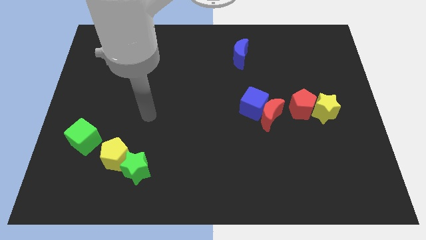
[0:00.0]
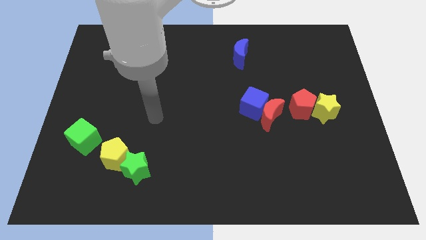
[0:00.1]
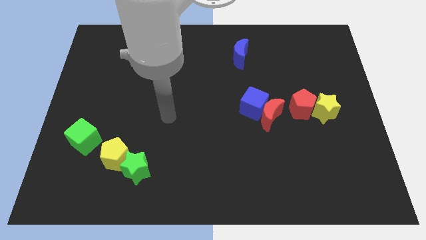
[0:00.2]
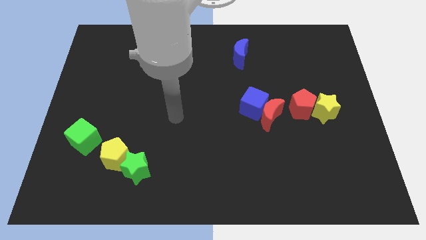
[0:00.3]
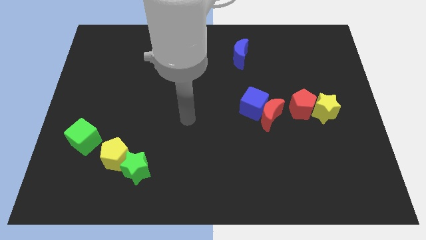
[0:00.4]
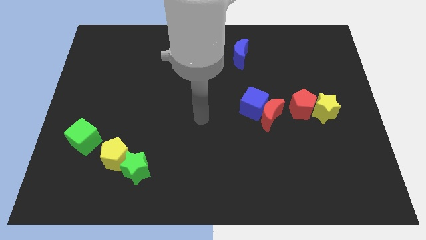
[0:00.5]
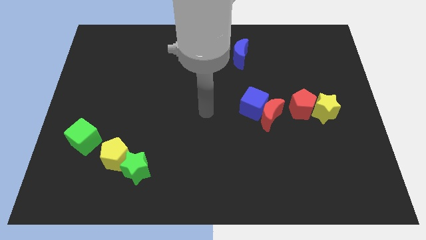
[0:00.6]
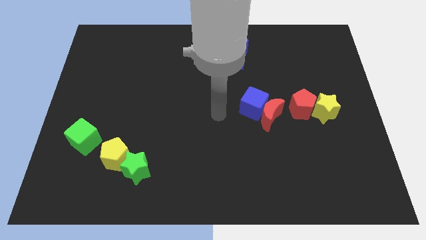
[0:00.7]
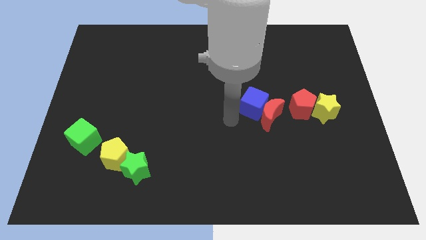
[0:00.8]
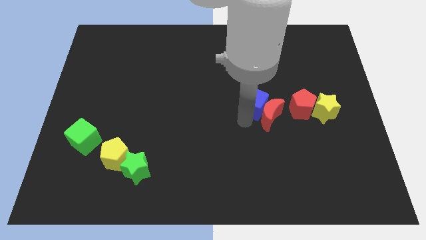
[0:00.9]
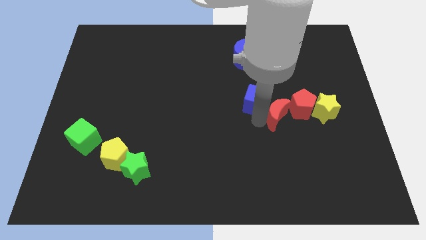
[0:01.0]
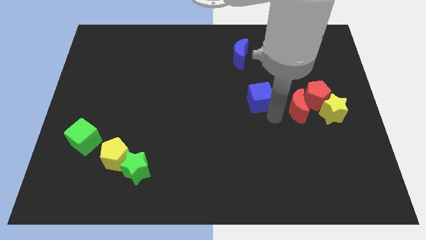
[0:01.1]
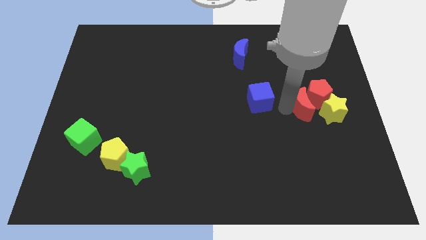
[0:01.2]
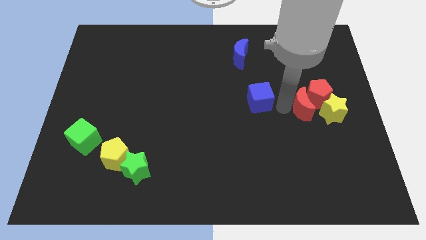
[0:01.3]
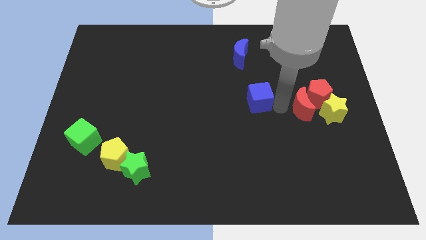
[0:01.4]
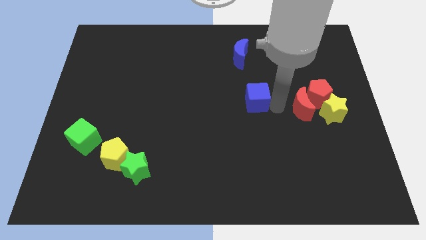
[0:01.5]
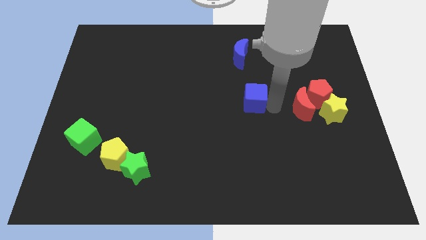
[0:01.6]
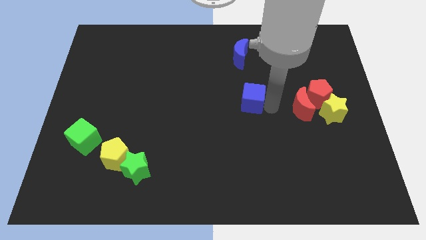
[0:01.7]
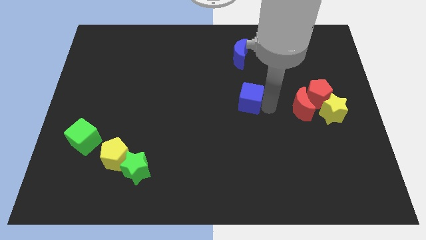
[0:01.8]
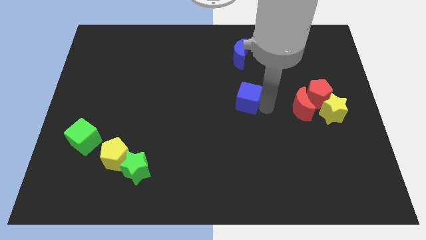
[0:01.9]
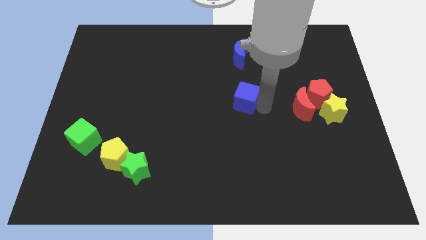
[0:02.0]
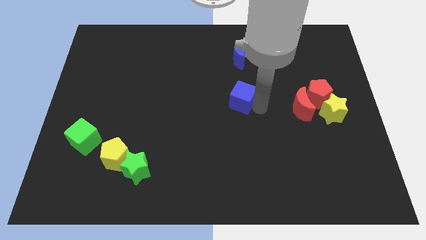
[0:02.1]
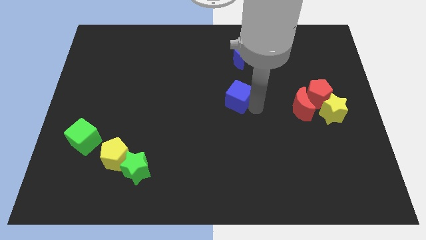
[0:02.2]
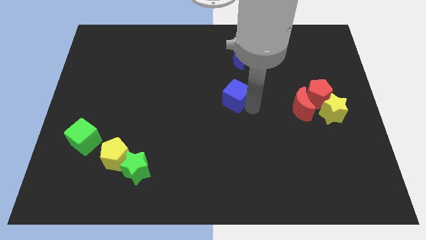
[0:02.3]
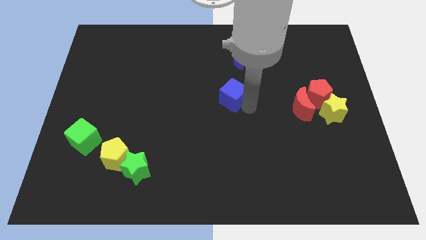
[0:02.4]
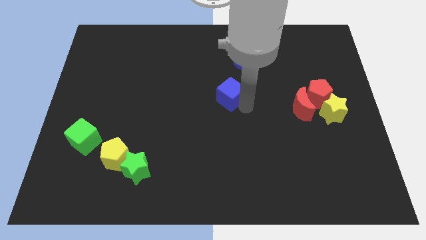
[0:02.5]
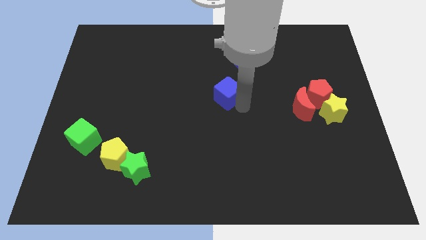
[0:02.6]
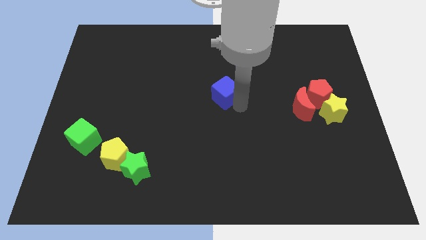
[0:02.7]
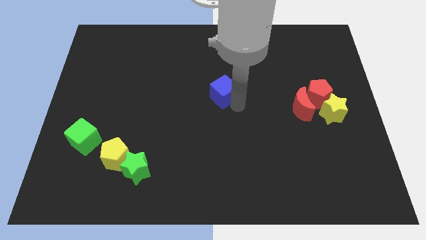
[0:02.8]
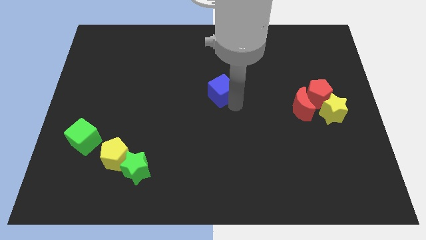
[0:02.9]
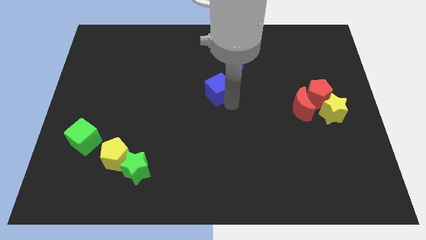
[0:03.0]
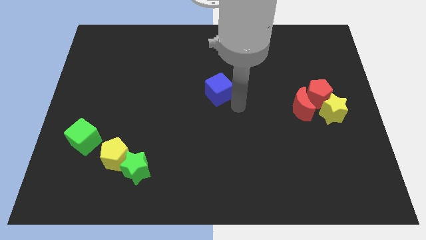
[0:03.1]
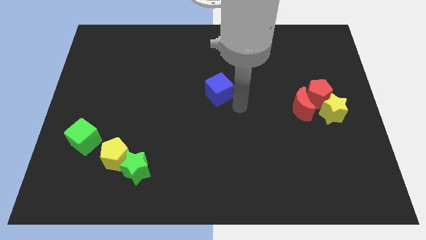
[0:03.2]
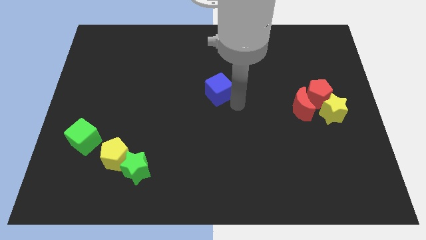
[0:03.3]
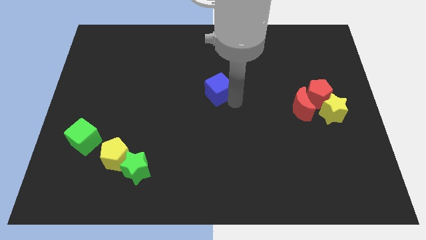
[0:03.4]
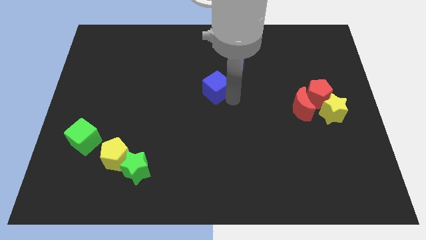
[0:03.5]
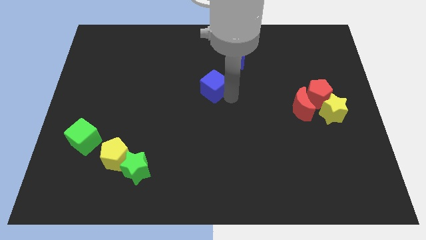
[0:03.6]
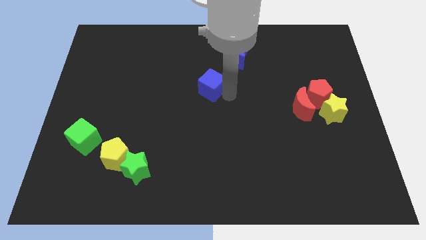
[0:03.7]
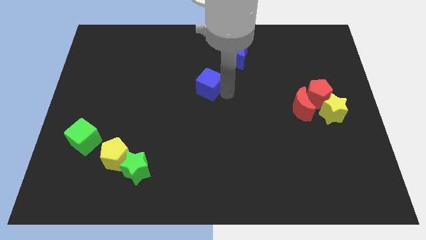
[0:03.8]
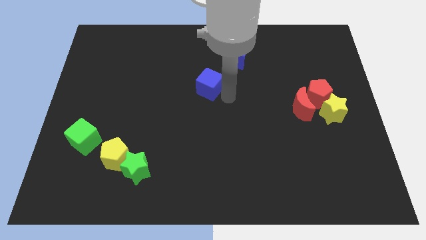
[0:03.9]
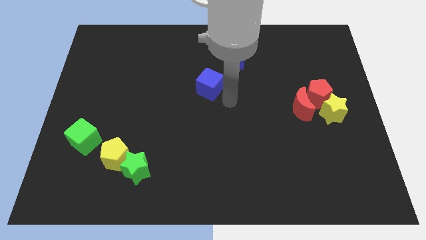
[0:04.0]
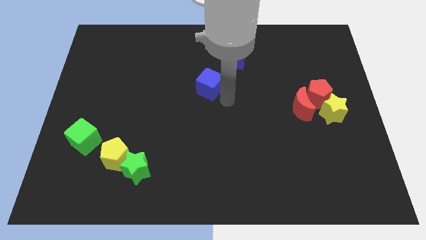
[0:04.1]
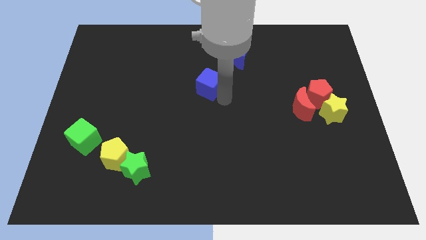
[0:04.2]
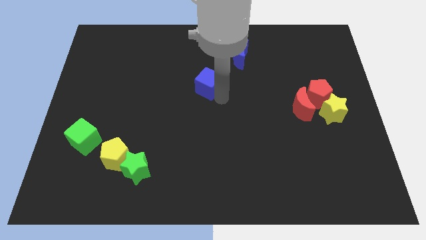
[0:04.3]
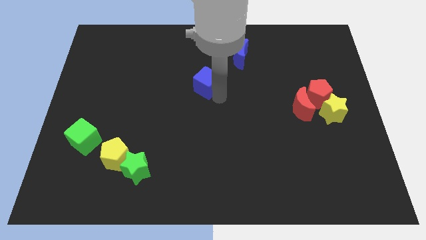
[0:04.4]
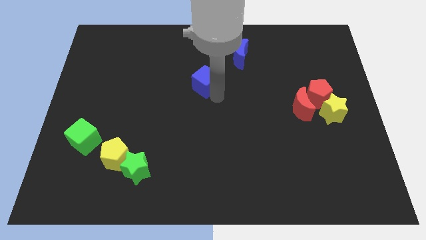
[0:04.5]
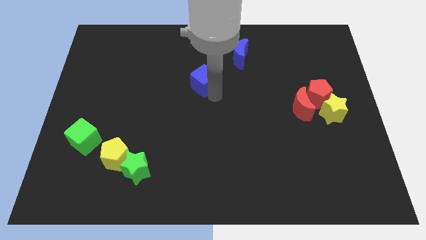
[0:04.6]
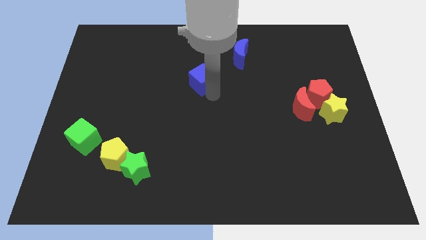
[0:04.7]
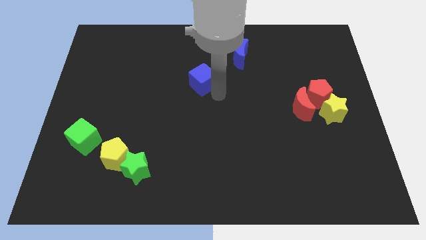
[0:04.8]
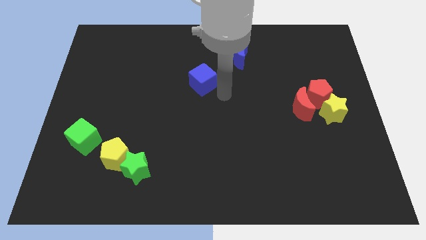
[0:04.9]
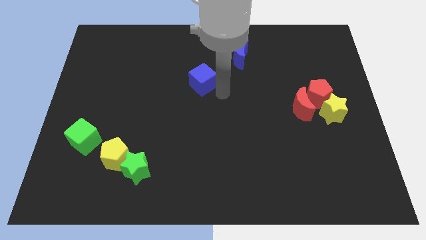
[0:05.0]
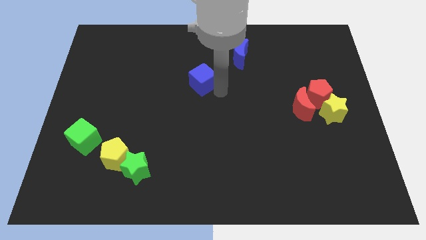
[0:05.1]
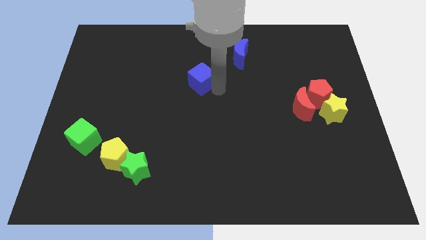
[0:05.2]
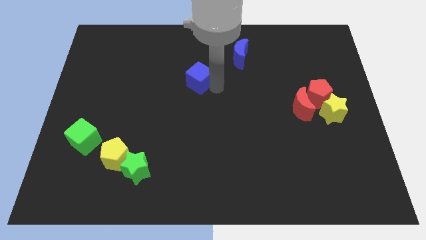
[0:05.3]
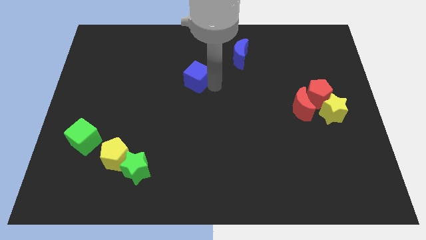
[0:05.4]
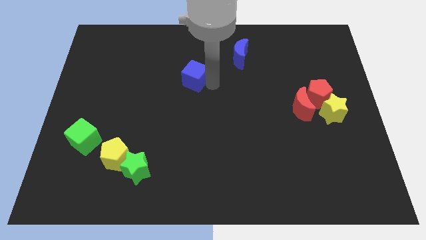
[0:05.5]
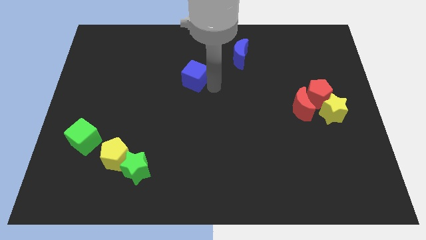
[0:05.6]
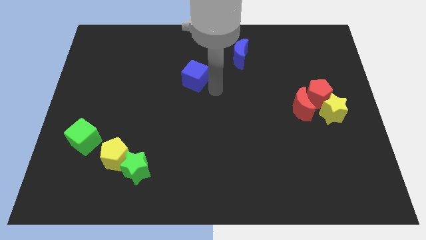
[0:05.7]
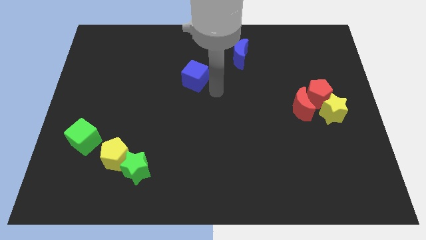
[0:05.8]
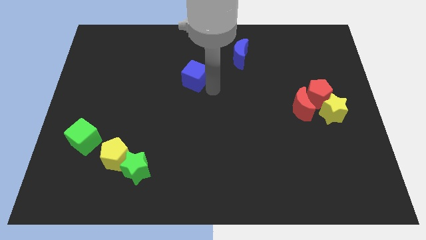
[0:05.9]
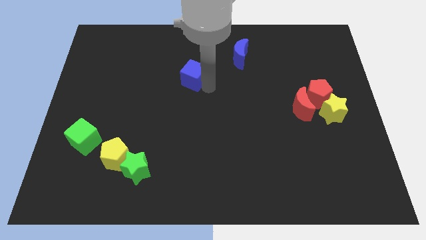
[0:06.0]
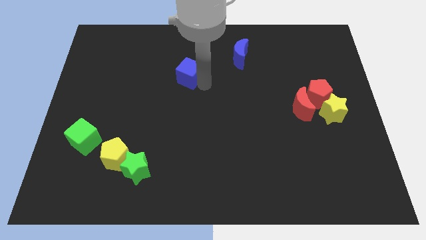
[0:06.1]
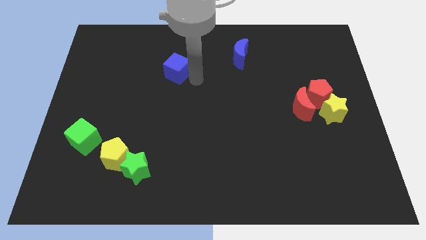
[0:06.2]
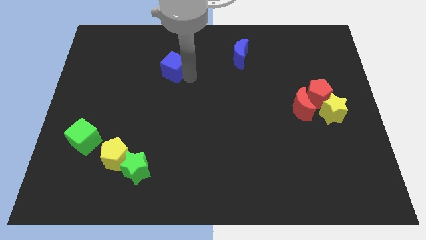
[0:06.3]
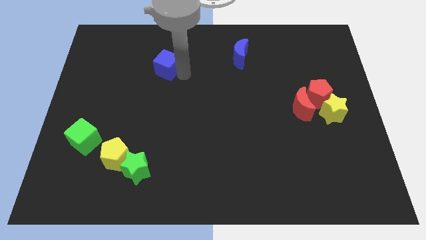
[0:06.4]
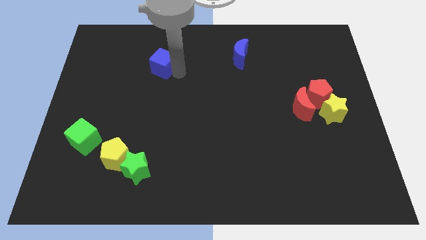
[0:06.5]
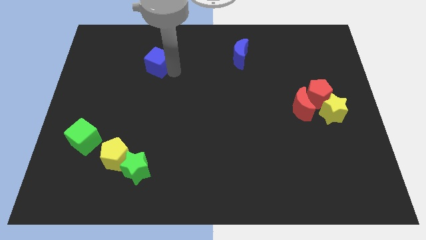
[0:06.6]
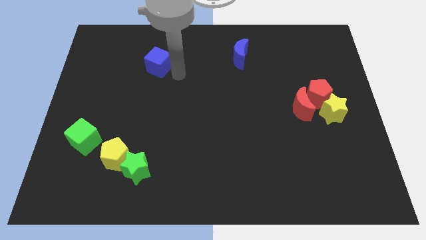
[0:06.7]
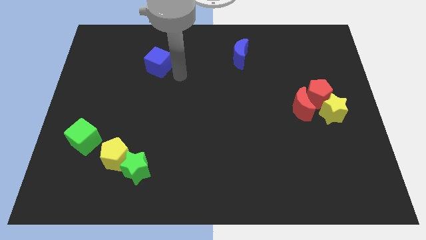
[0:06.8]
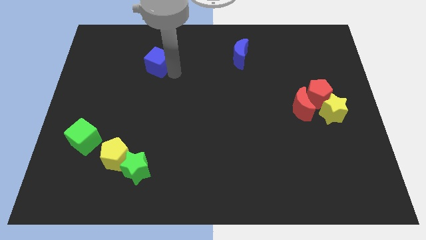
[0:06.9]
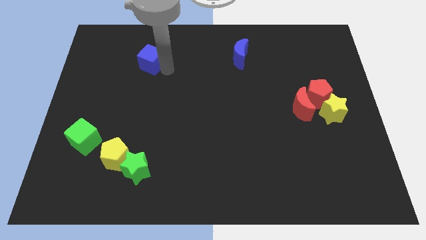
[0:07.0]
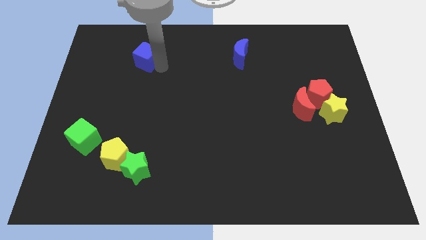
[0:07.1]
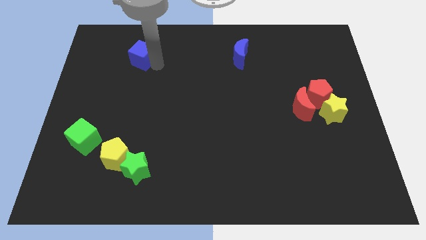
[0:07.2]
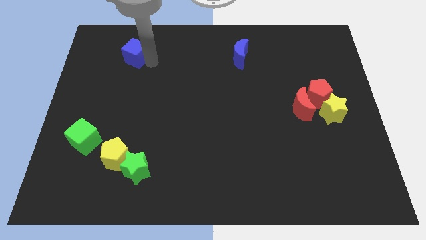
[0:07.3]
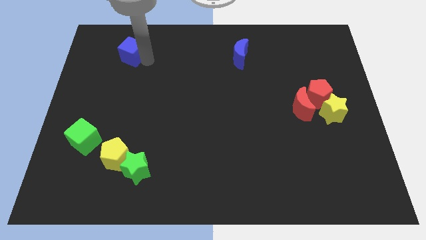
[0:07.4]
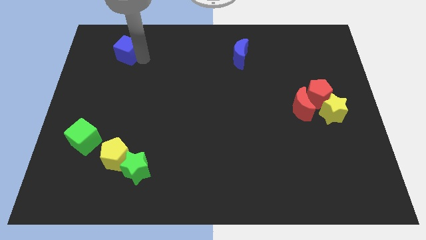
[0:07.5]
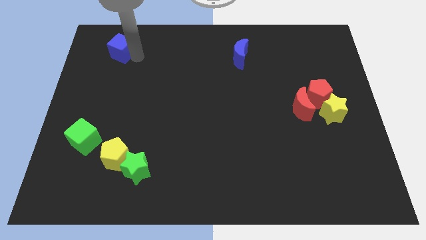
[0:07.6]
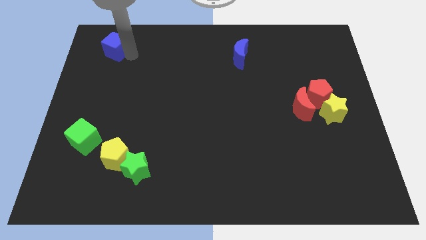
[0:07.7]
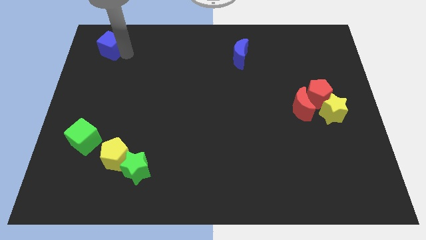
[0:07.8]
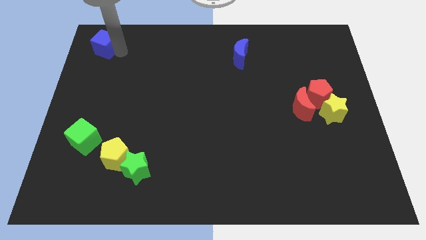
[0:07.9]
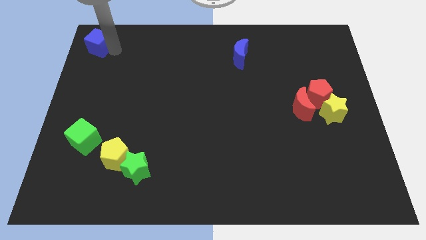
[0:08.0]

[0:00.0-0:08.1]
slide the blue cube to the upper left corner
